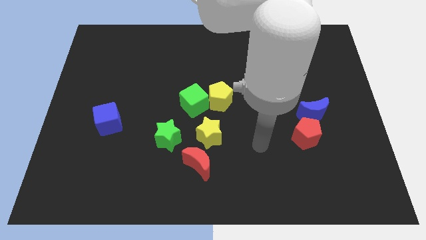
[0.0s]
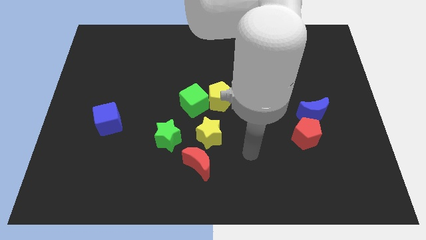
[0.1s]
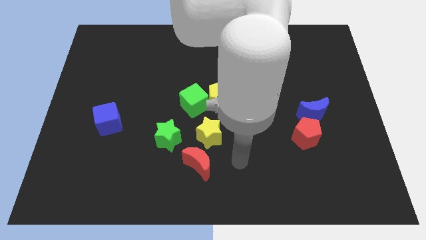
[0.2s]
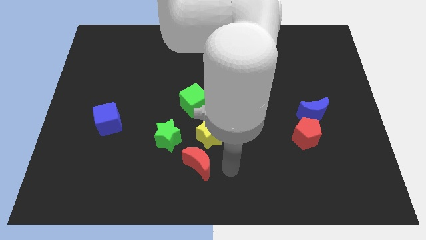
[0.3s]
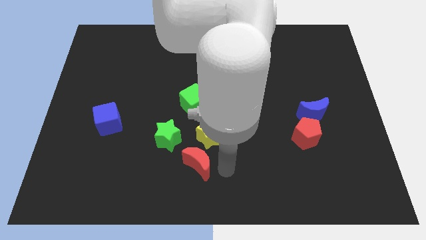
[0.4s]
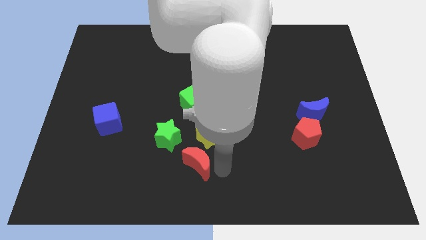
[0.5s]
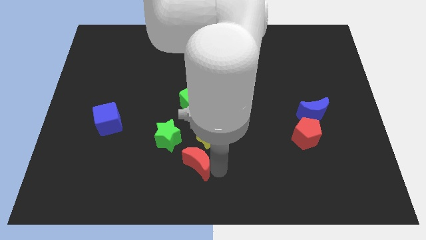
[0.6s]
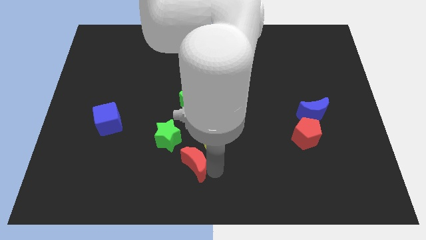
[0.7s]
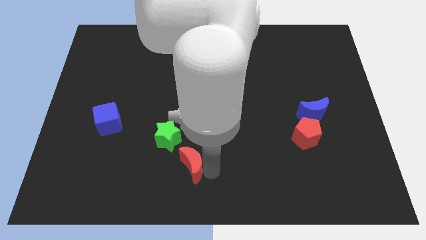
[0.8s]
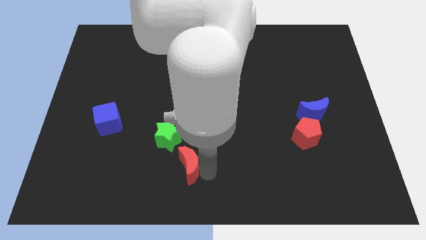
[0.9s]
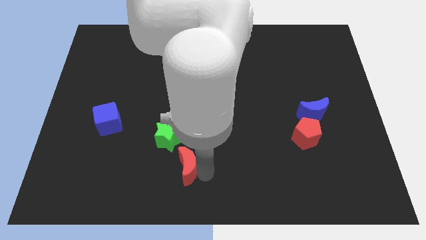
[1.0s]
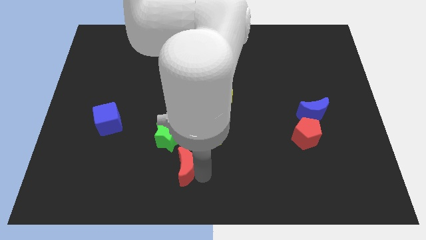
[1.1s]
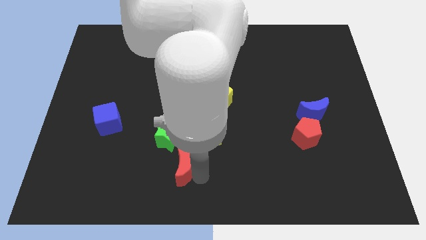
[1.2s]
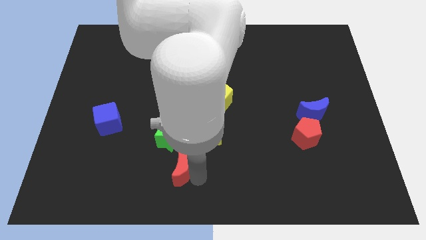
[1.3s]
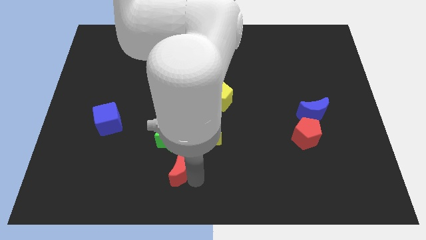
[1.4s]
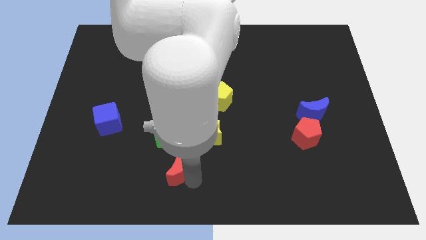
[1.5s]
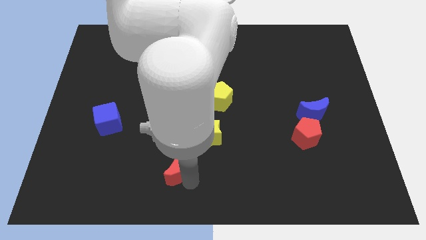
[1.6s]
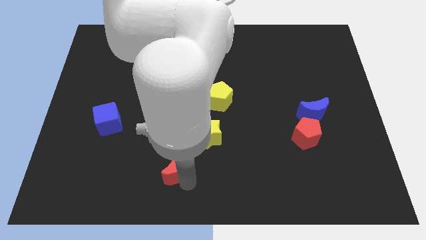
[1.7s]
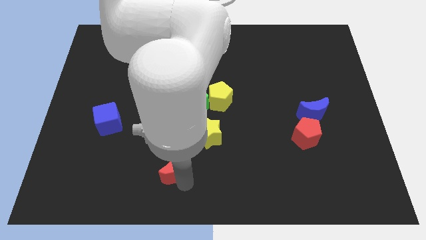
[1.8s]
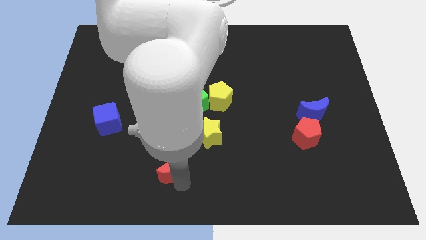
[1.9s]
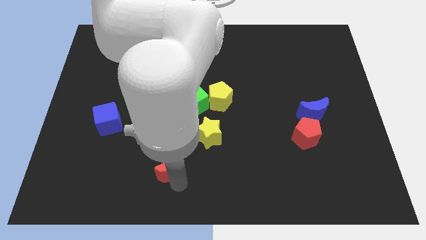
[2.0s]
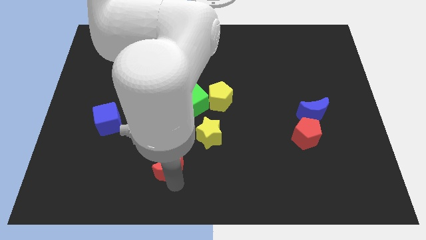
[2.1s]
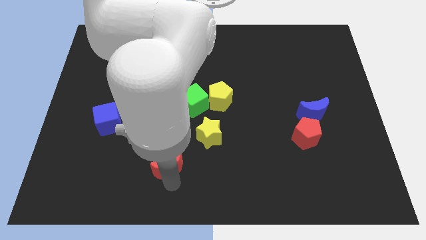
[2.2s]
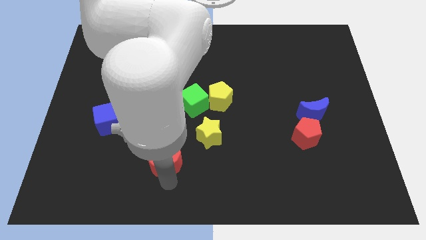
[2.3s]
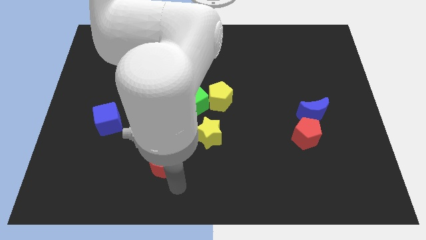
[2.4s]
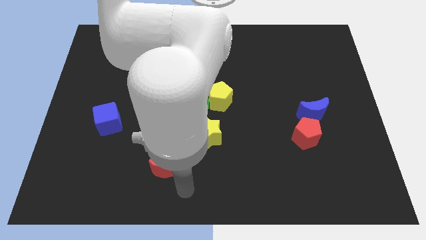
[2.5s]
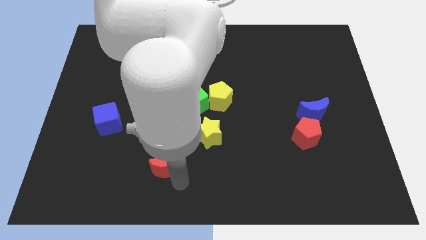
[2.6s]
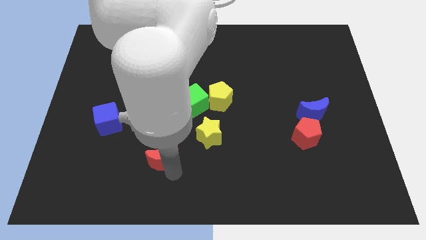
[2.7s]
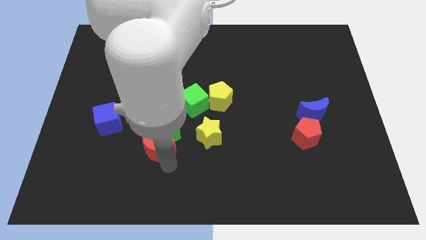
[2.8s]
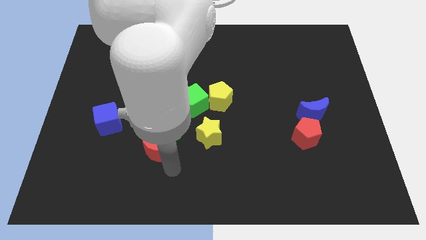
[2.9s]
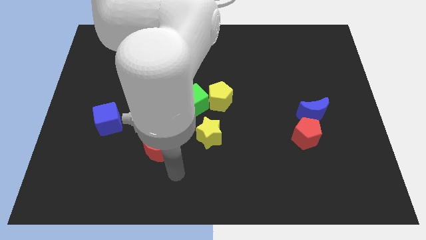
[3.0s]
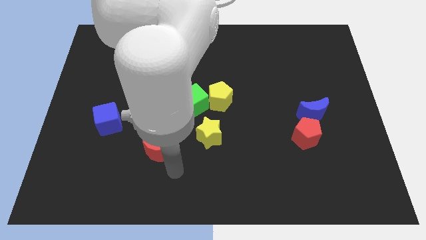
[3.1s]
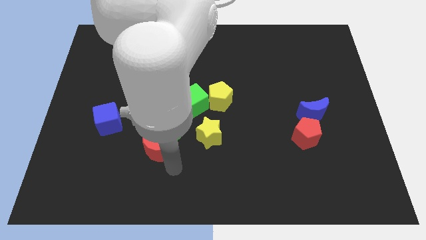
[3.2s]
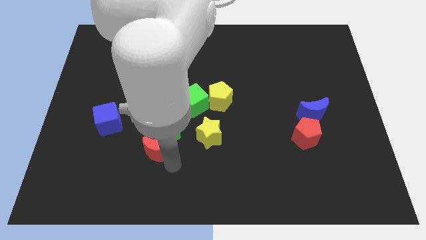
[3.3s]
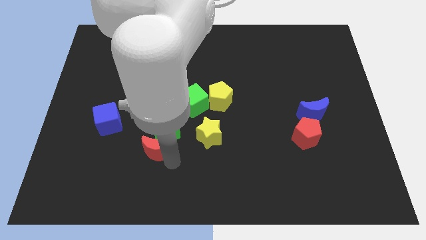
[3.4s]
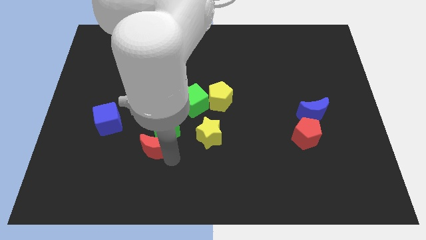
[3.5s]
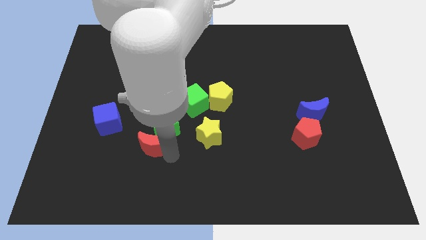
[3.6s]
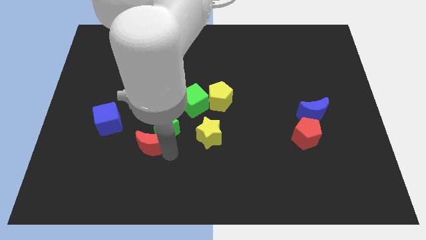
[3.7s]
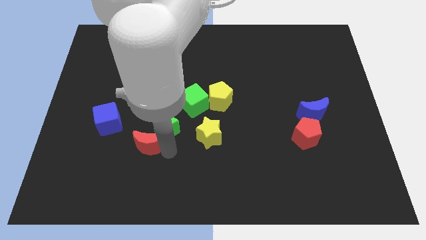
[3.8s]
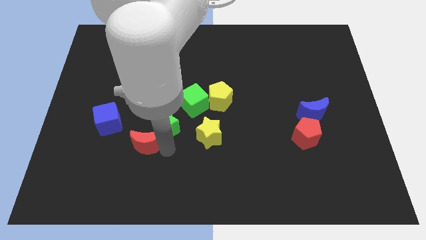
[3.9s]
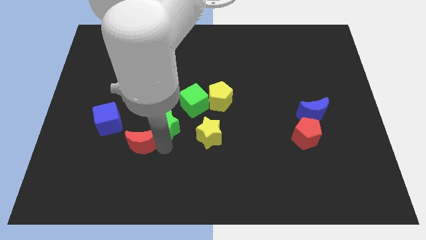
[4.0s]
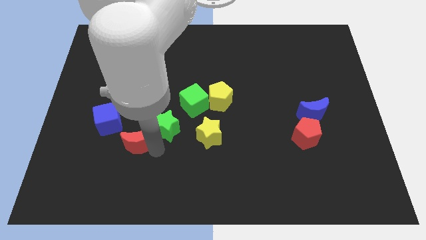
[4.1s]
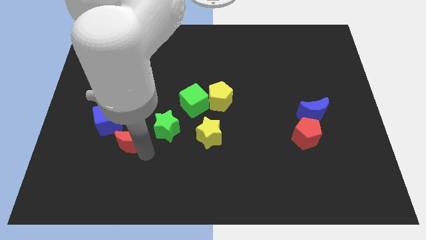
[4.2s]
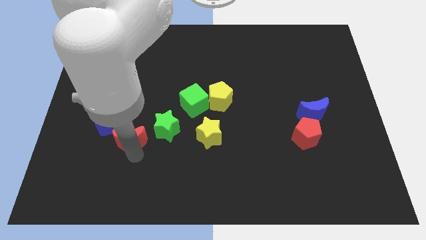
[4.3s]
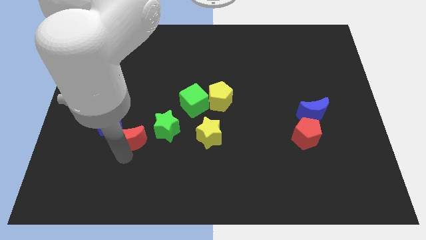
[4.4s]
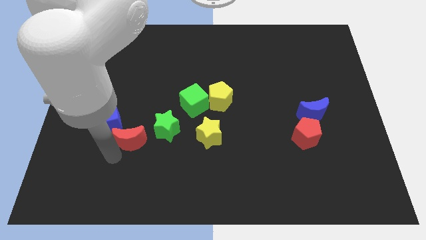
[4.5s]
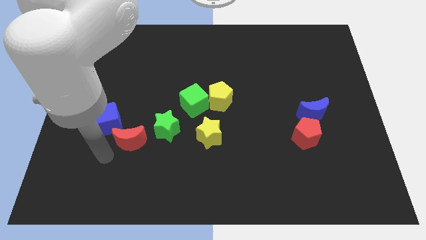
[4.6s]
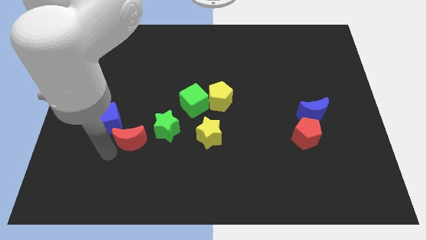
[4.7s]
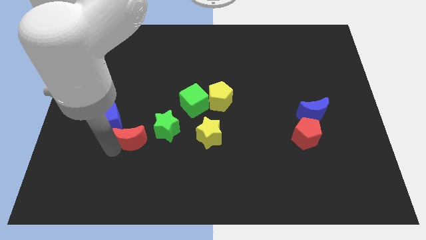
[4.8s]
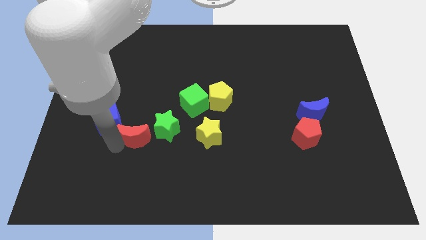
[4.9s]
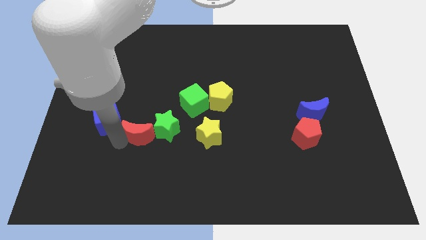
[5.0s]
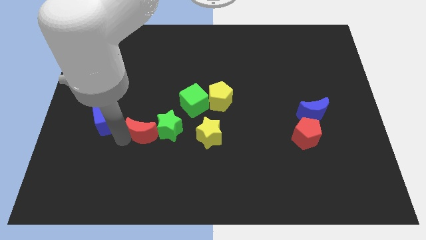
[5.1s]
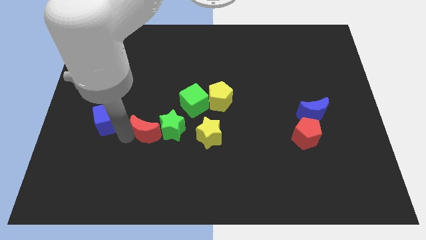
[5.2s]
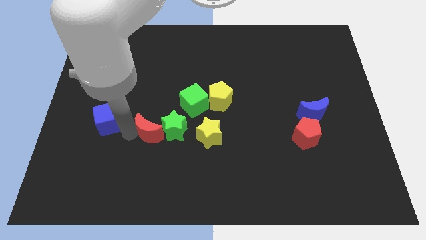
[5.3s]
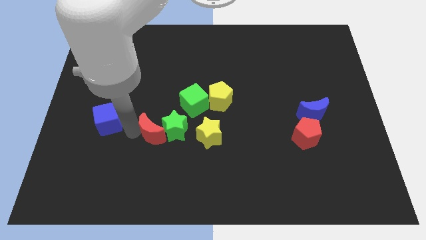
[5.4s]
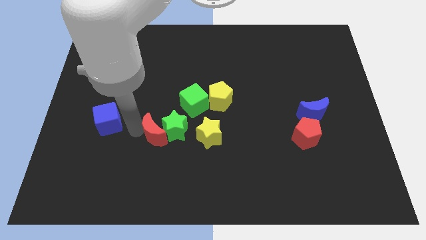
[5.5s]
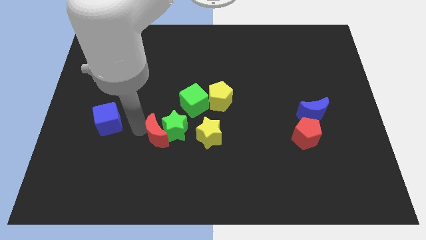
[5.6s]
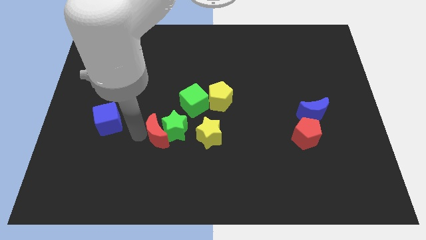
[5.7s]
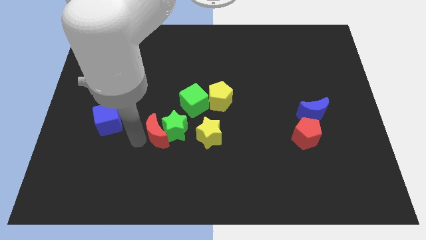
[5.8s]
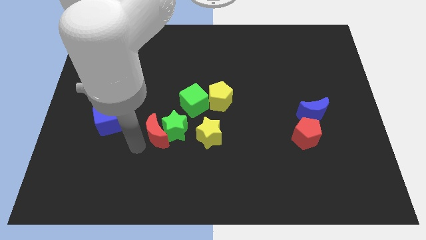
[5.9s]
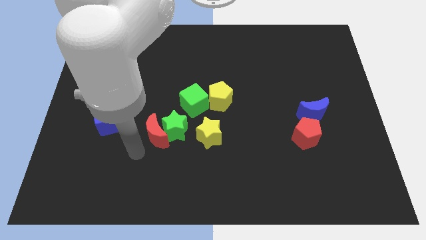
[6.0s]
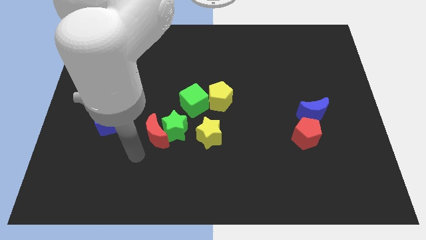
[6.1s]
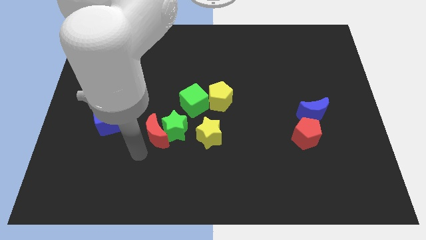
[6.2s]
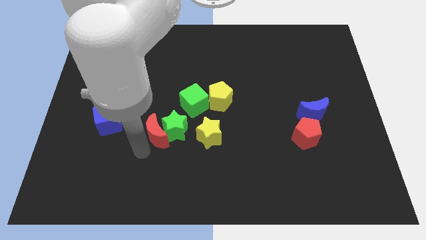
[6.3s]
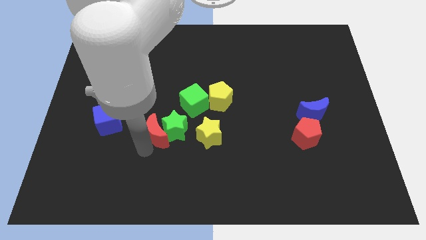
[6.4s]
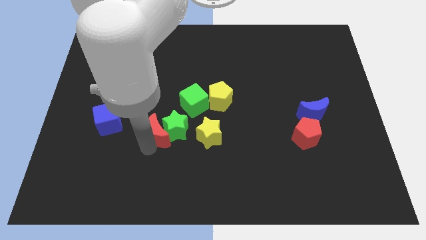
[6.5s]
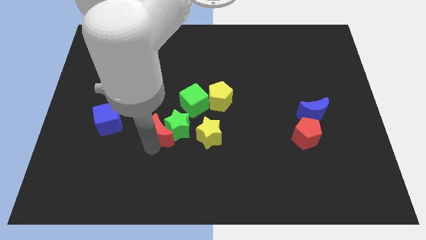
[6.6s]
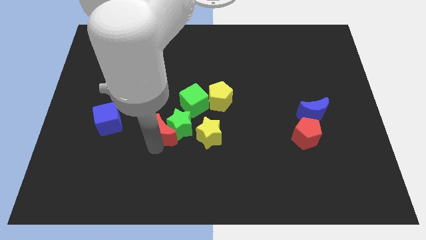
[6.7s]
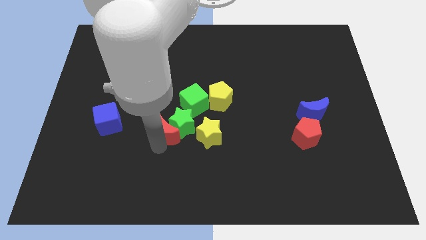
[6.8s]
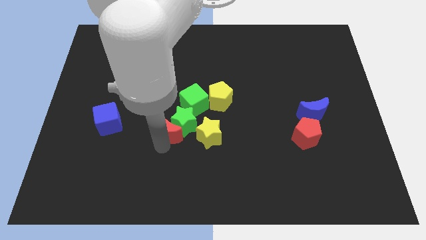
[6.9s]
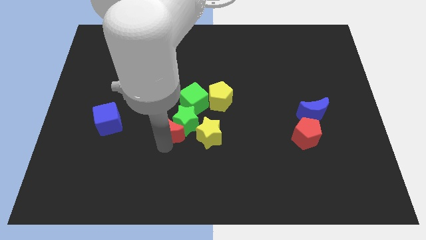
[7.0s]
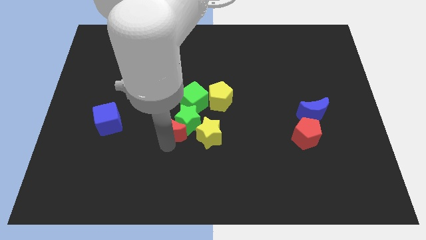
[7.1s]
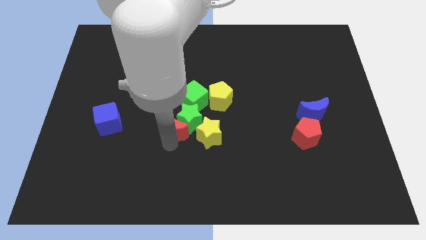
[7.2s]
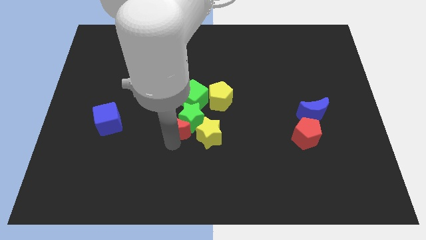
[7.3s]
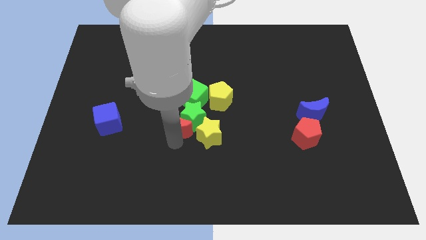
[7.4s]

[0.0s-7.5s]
put the red moon to the bottom left of the yellow pentagon
